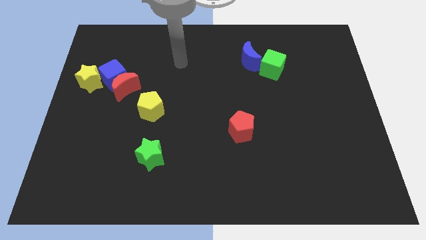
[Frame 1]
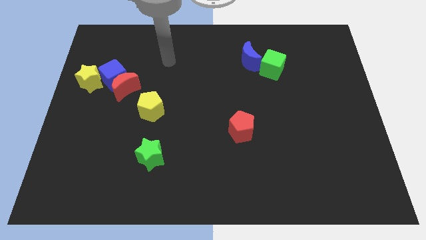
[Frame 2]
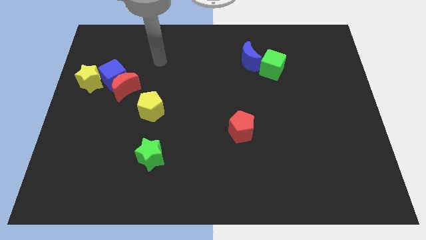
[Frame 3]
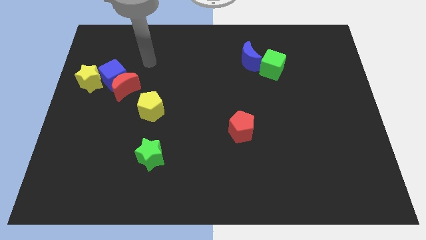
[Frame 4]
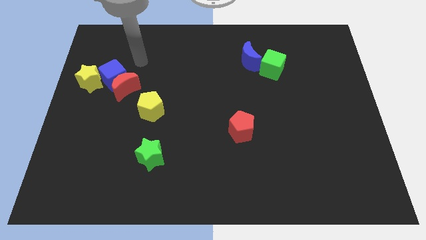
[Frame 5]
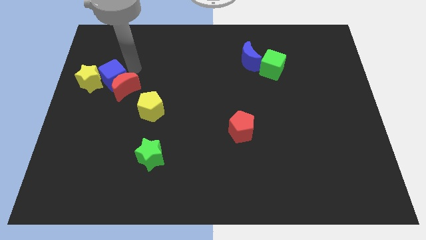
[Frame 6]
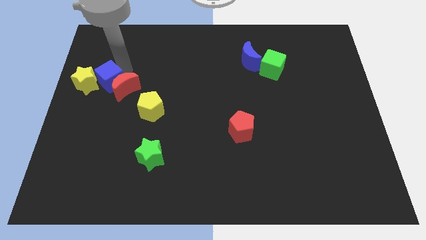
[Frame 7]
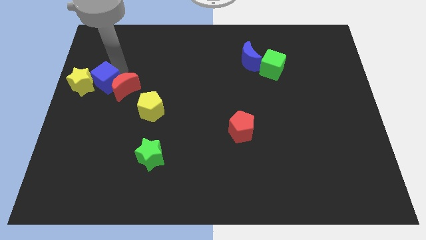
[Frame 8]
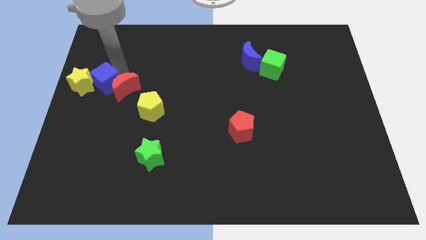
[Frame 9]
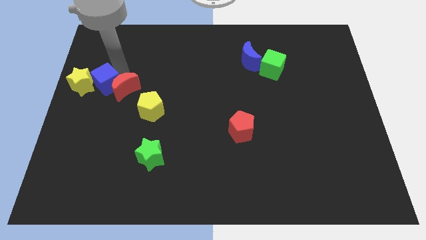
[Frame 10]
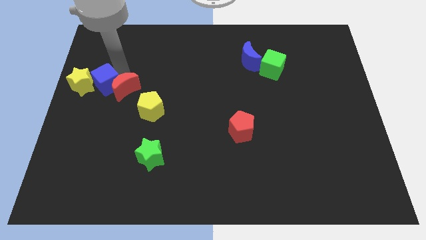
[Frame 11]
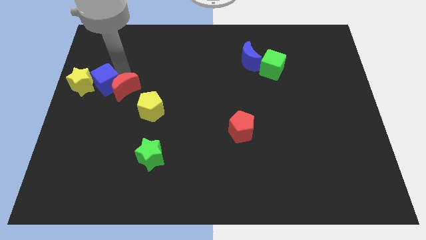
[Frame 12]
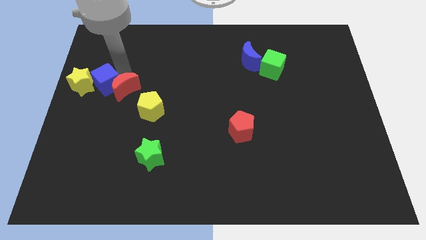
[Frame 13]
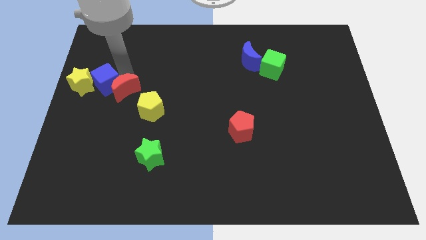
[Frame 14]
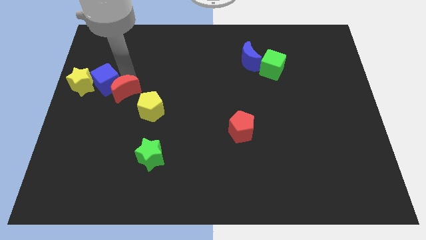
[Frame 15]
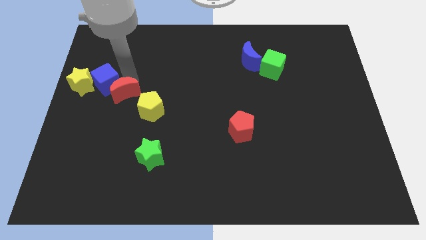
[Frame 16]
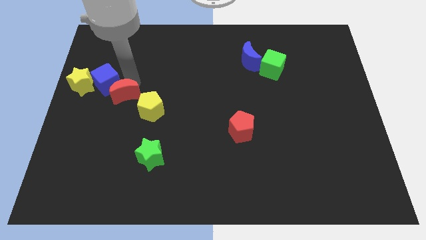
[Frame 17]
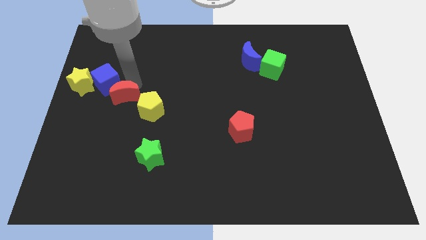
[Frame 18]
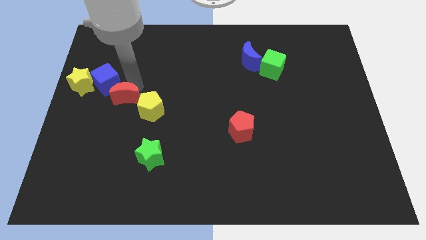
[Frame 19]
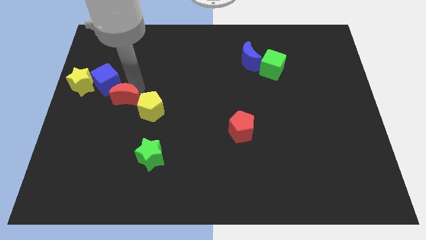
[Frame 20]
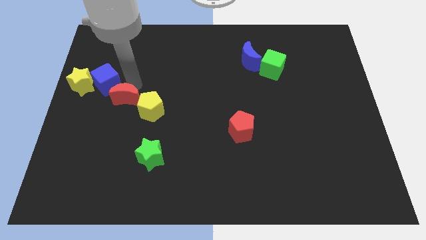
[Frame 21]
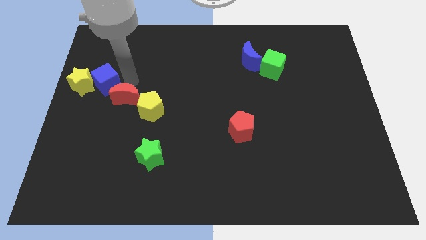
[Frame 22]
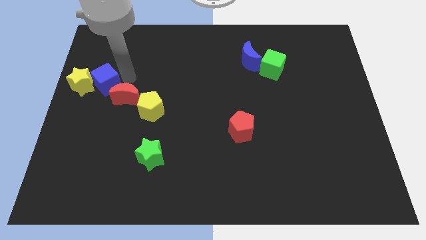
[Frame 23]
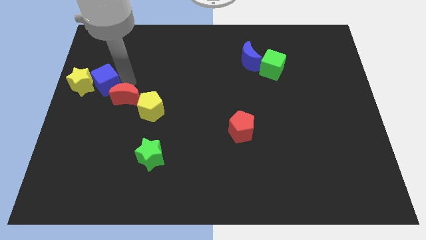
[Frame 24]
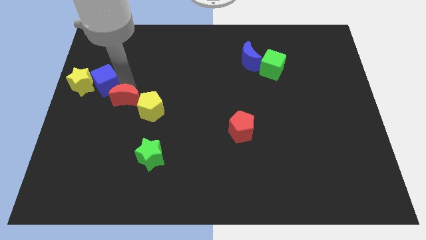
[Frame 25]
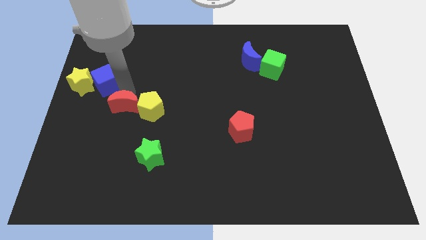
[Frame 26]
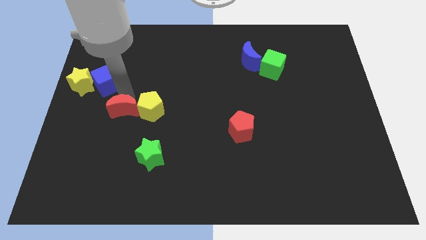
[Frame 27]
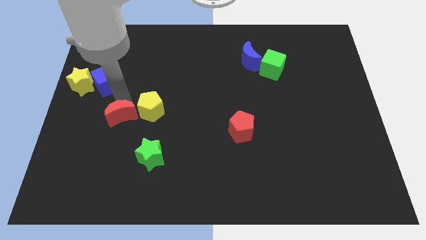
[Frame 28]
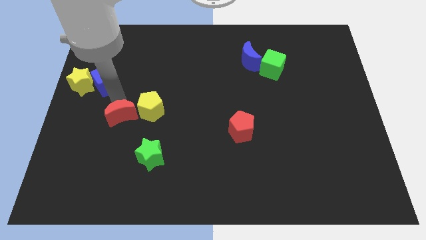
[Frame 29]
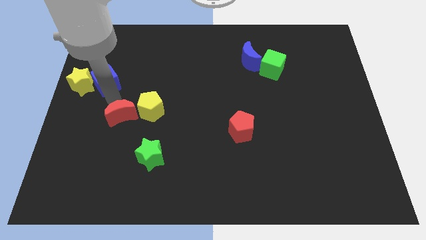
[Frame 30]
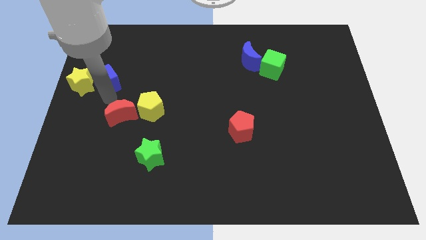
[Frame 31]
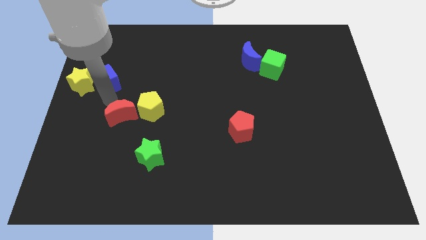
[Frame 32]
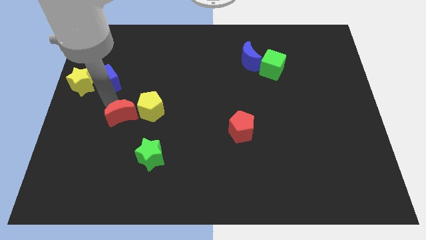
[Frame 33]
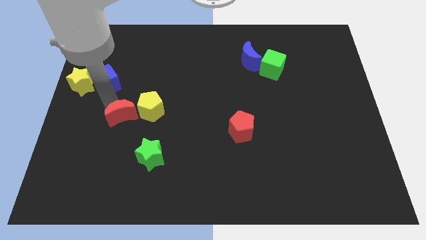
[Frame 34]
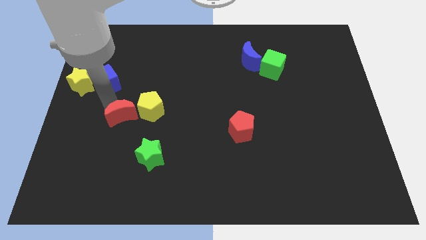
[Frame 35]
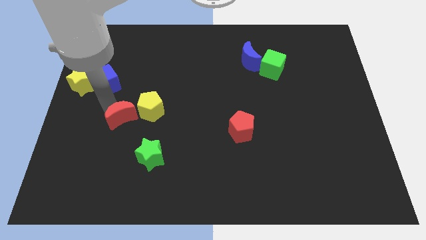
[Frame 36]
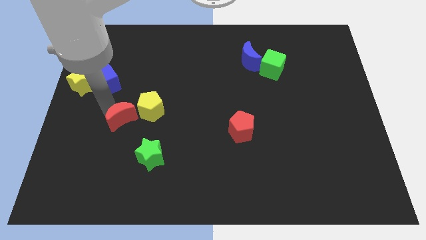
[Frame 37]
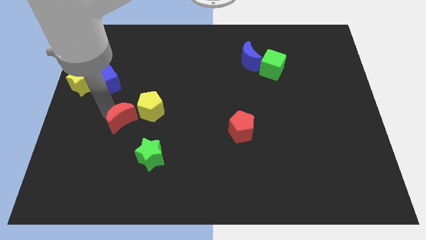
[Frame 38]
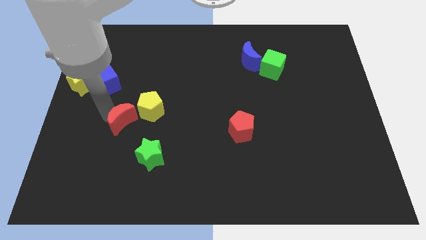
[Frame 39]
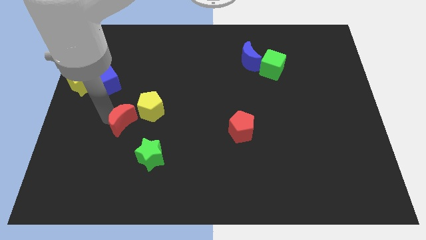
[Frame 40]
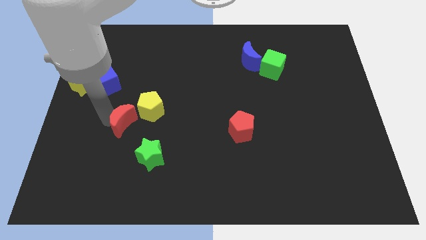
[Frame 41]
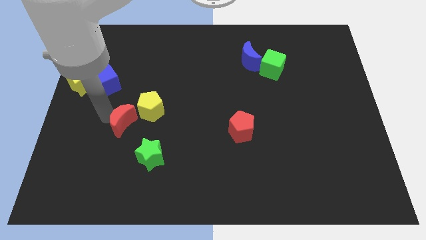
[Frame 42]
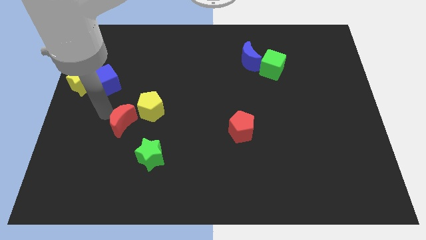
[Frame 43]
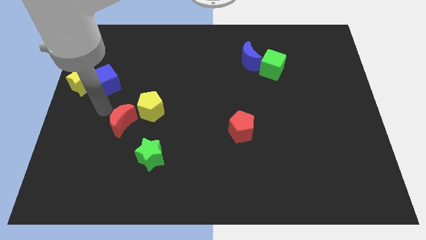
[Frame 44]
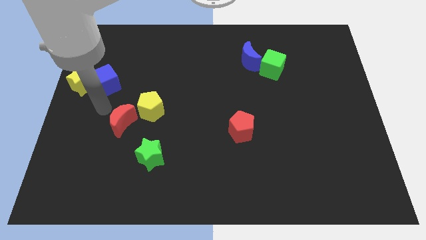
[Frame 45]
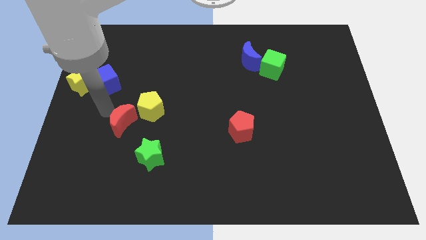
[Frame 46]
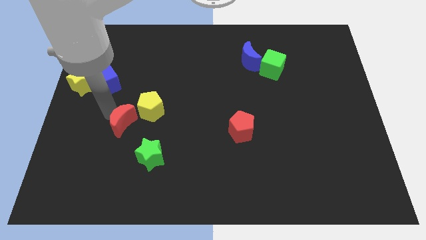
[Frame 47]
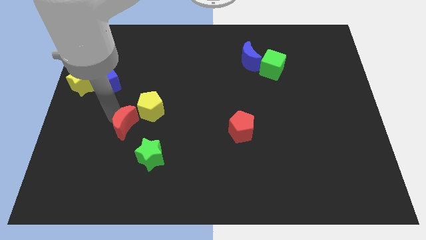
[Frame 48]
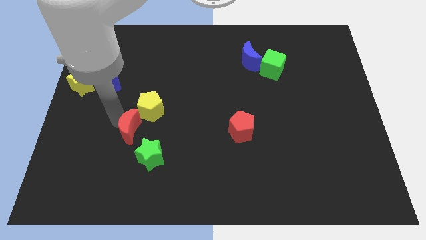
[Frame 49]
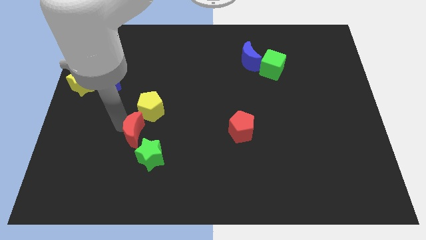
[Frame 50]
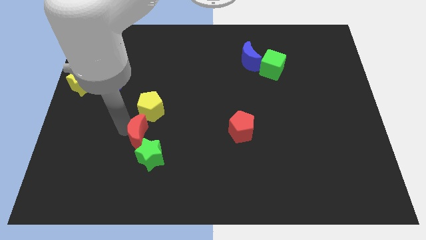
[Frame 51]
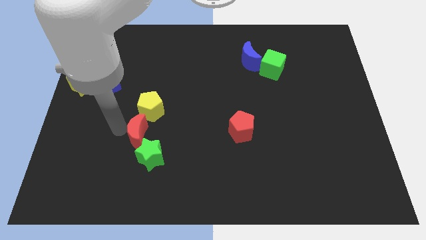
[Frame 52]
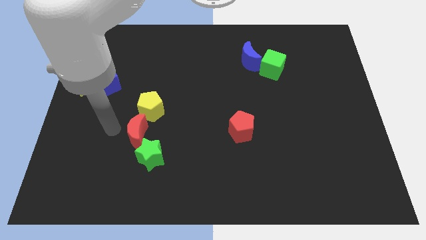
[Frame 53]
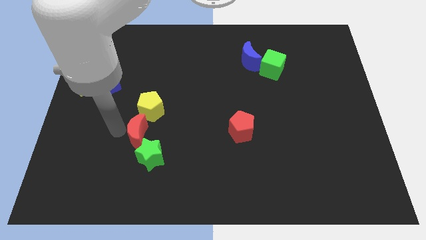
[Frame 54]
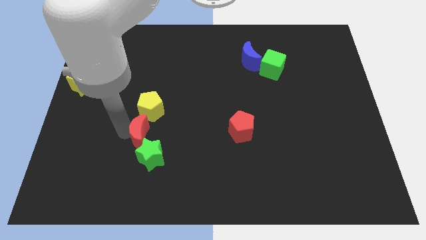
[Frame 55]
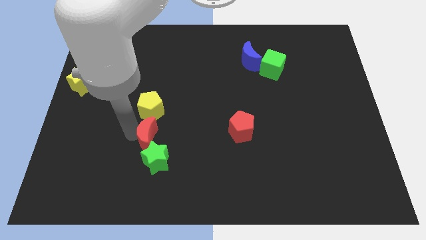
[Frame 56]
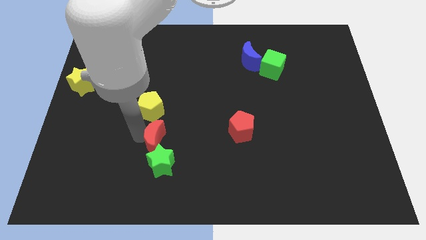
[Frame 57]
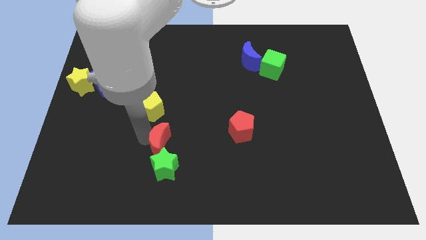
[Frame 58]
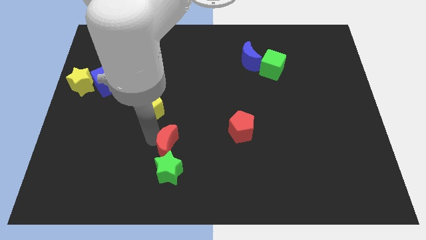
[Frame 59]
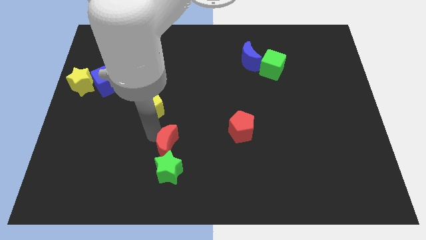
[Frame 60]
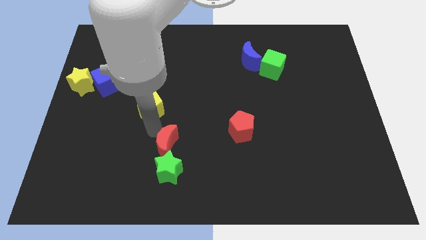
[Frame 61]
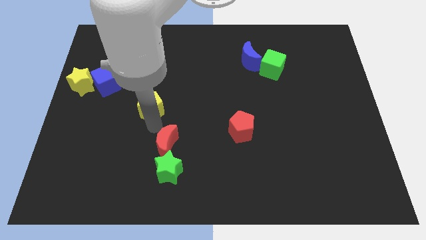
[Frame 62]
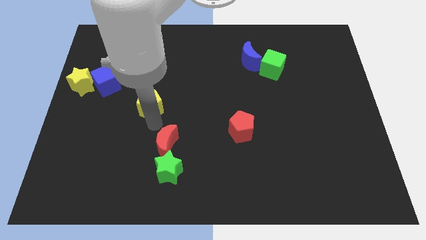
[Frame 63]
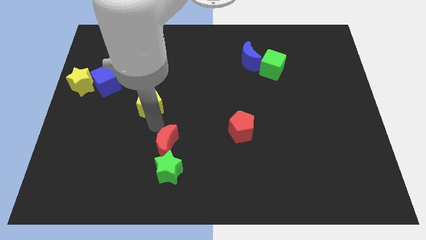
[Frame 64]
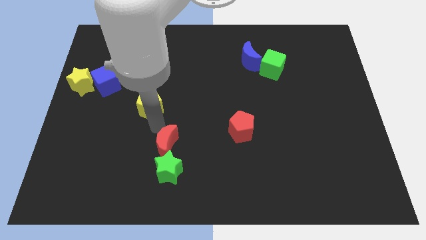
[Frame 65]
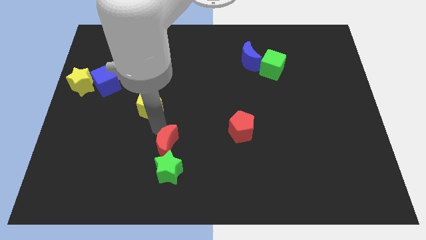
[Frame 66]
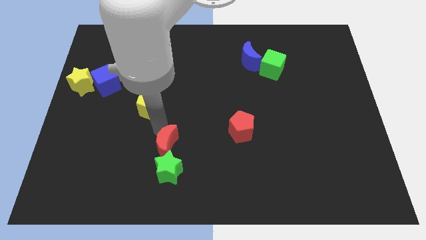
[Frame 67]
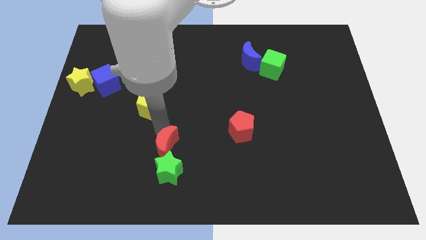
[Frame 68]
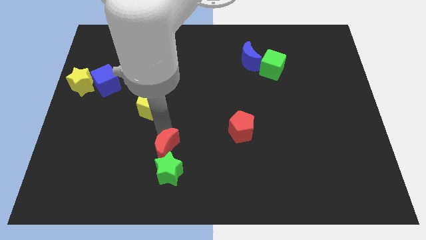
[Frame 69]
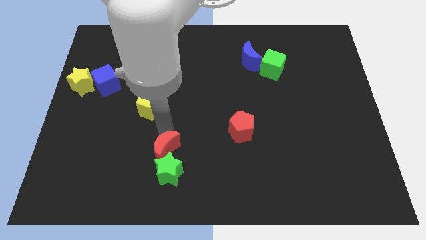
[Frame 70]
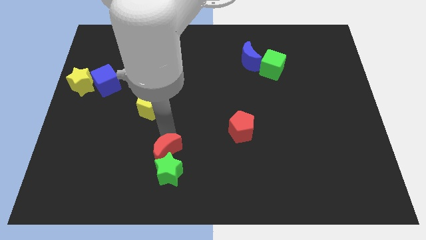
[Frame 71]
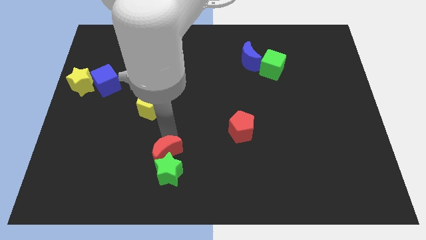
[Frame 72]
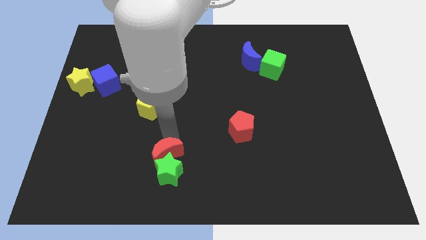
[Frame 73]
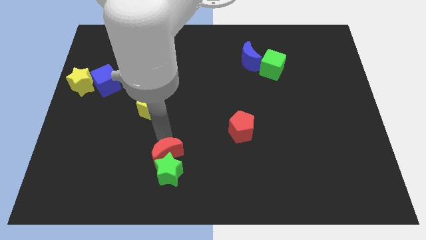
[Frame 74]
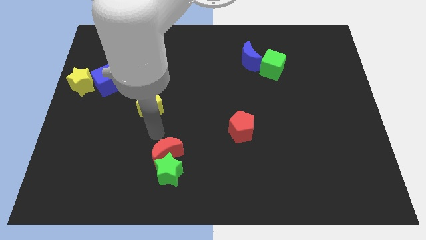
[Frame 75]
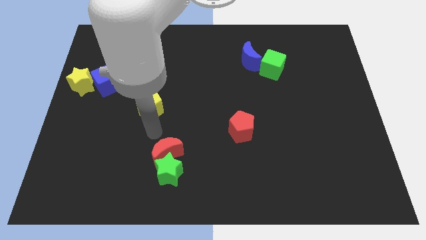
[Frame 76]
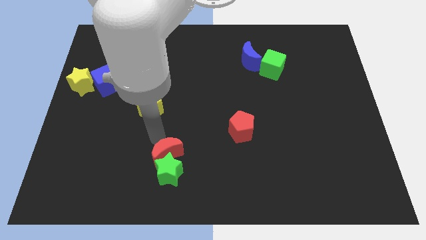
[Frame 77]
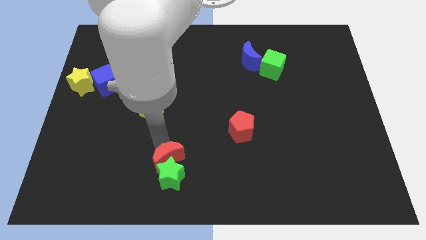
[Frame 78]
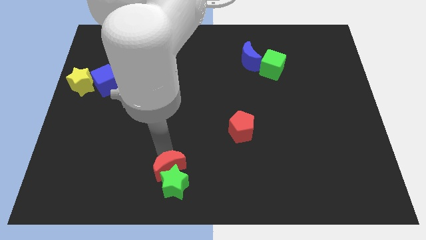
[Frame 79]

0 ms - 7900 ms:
push the red moon to the bottom side
